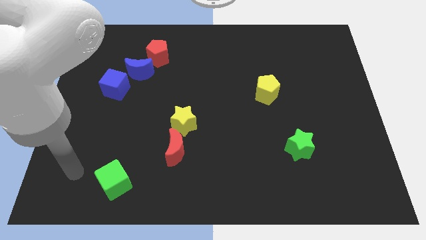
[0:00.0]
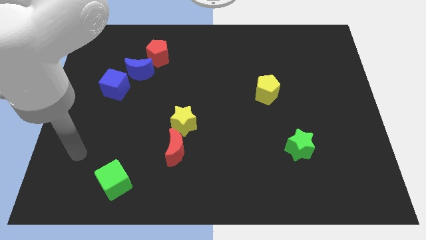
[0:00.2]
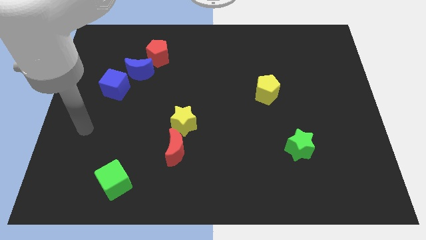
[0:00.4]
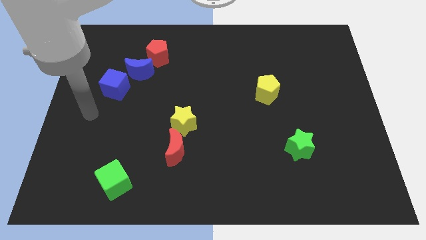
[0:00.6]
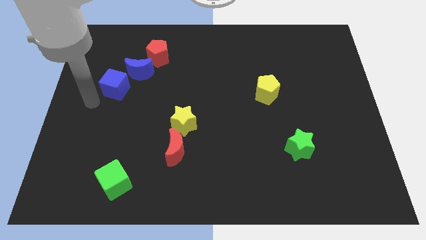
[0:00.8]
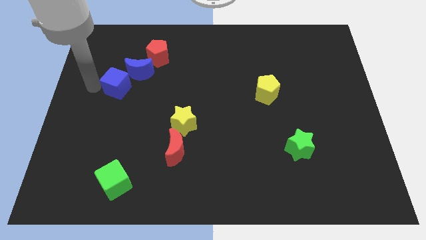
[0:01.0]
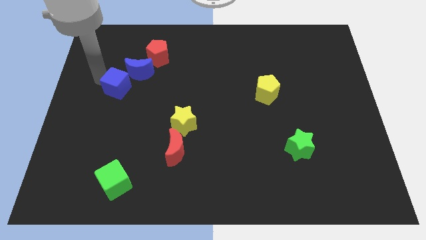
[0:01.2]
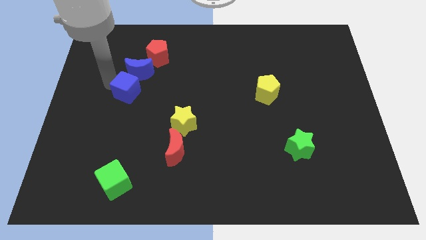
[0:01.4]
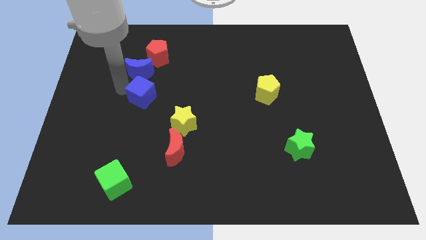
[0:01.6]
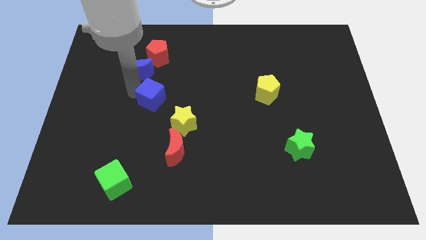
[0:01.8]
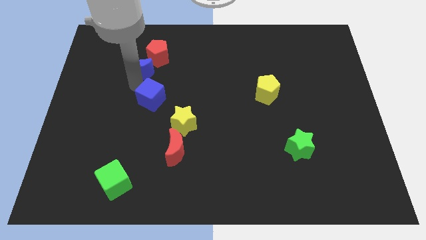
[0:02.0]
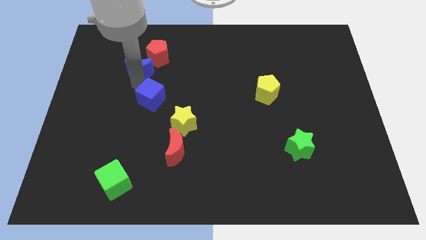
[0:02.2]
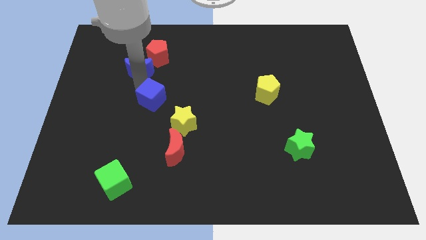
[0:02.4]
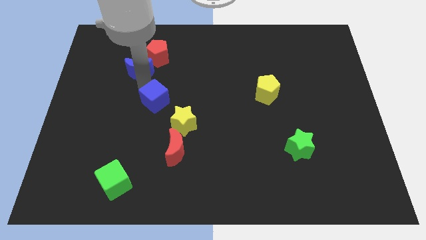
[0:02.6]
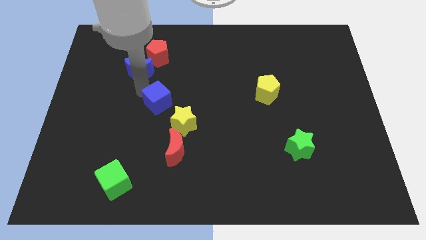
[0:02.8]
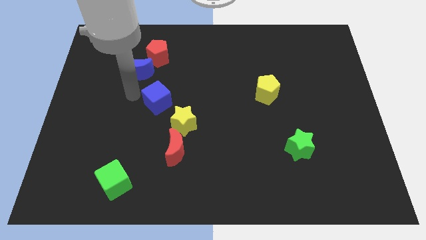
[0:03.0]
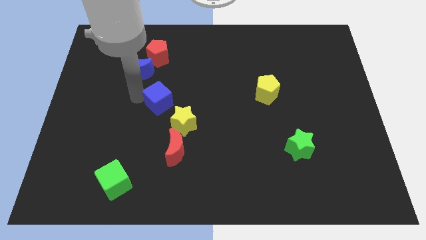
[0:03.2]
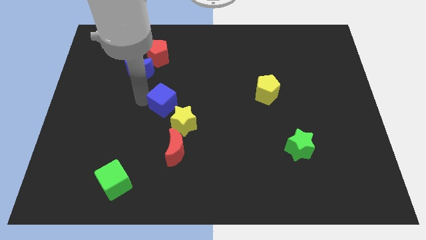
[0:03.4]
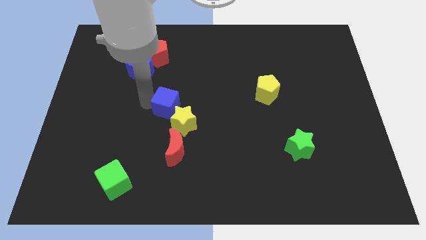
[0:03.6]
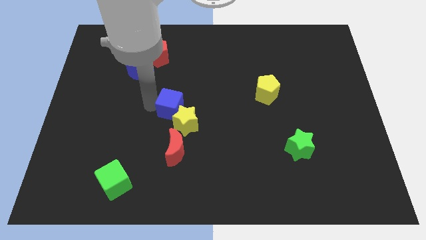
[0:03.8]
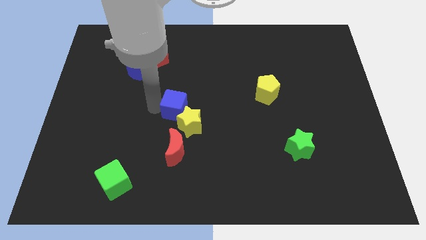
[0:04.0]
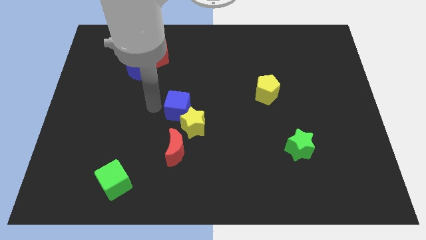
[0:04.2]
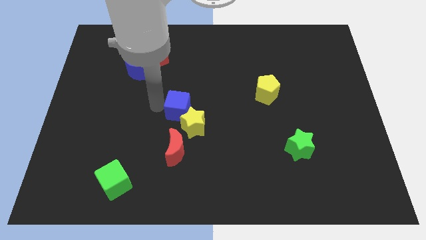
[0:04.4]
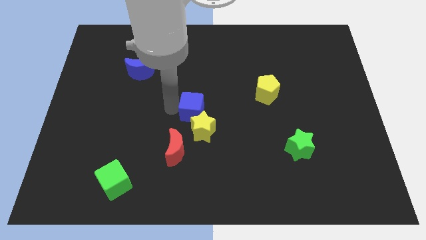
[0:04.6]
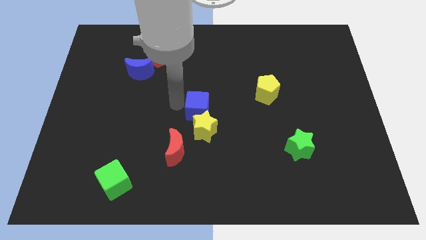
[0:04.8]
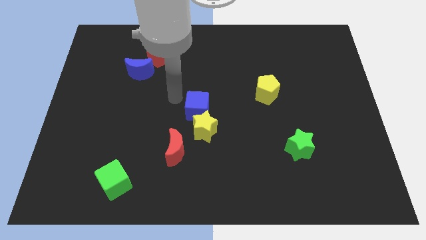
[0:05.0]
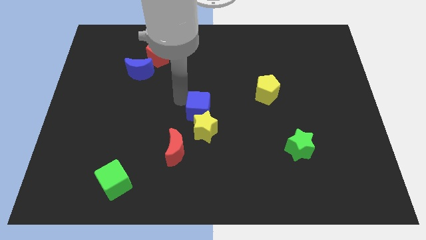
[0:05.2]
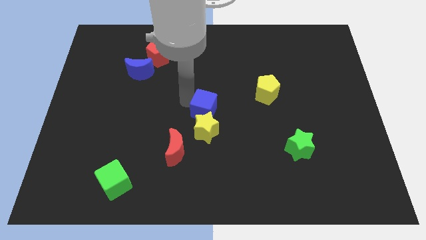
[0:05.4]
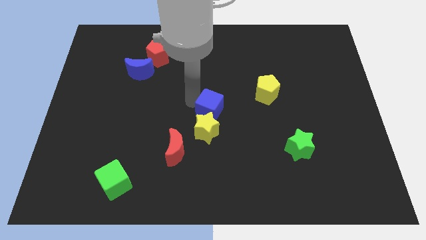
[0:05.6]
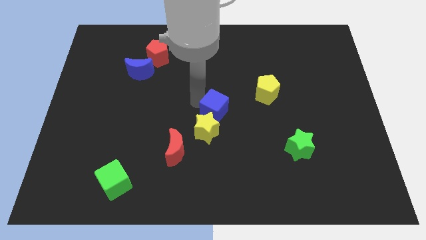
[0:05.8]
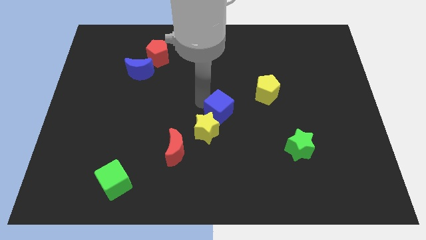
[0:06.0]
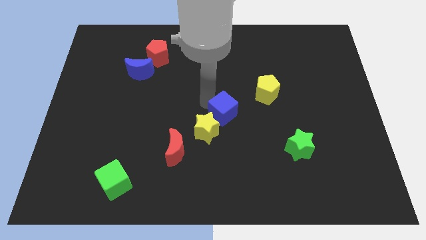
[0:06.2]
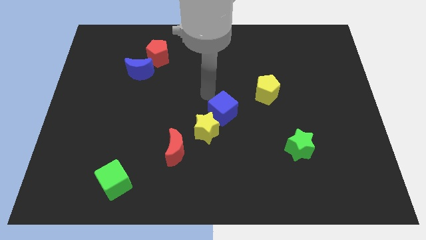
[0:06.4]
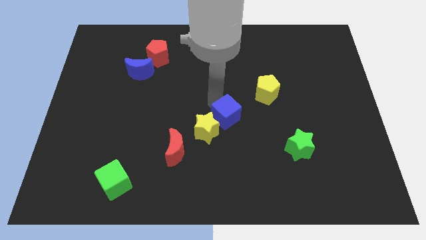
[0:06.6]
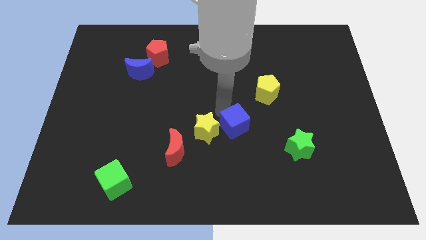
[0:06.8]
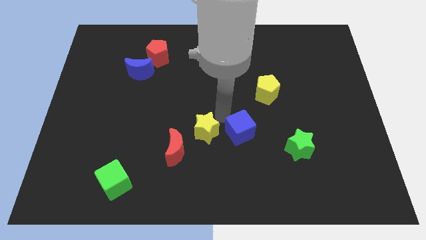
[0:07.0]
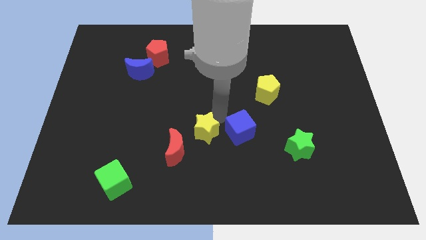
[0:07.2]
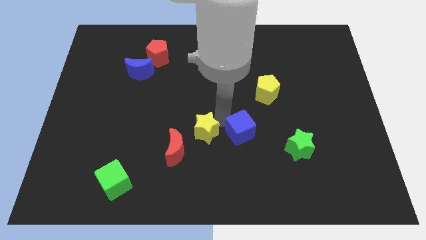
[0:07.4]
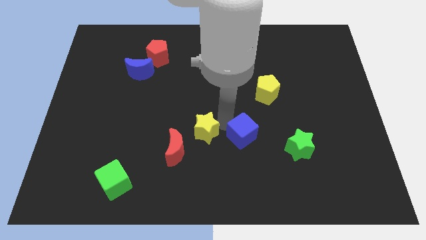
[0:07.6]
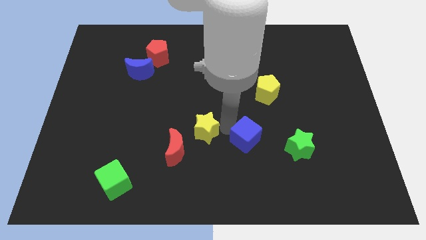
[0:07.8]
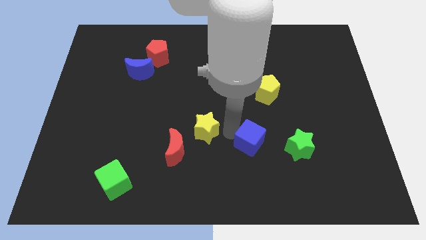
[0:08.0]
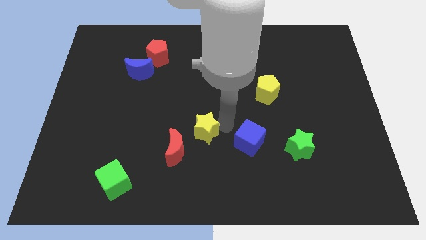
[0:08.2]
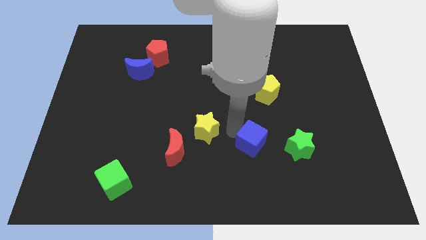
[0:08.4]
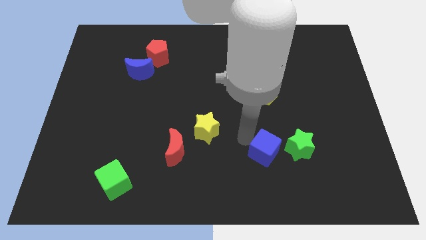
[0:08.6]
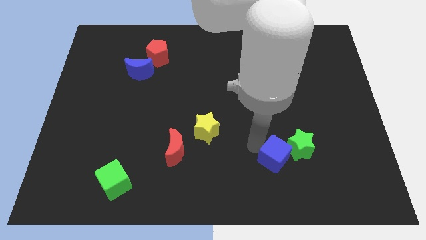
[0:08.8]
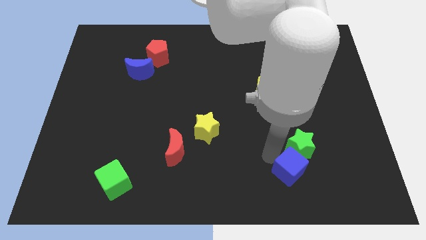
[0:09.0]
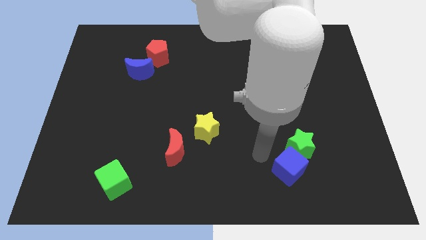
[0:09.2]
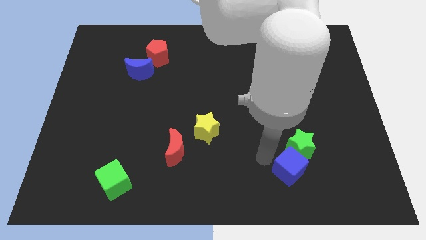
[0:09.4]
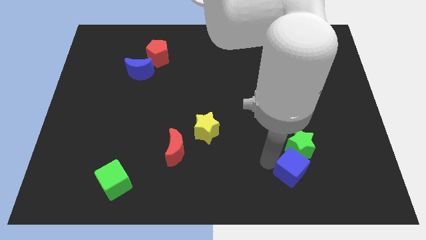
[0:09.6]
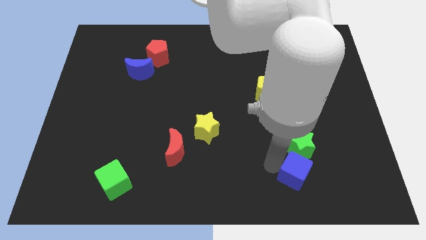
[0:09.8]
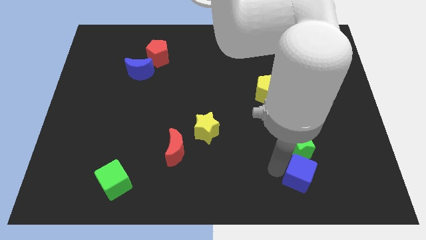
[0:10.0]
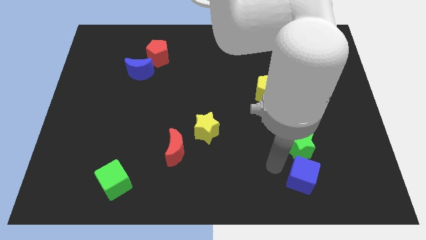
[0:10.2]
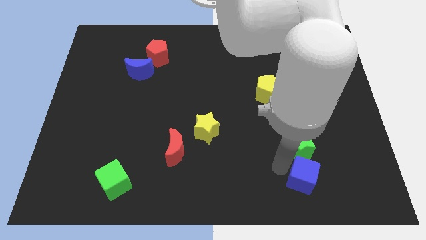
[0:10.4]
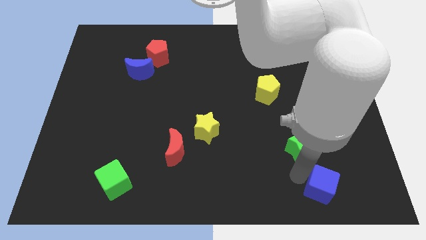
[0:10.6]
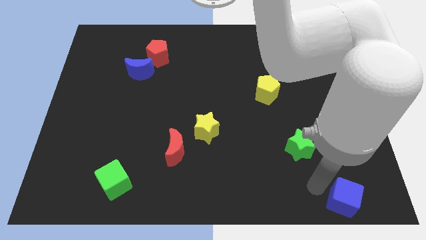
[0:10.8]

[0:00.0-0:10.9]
move the blue cube to the bottom right corner

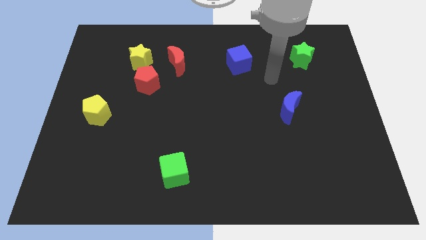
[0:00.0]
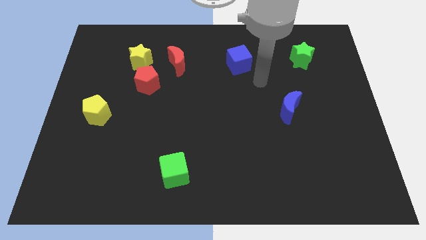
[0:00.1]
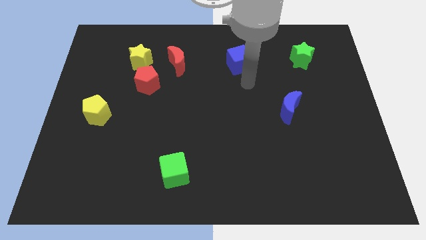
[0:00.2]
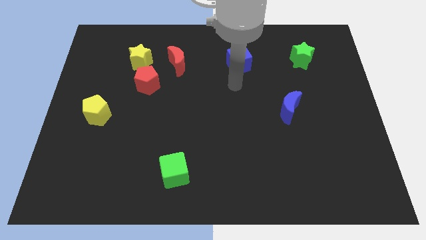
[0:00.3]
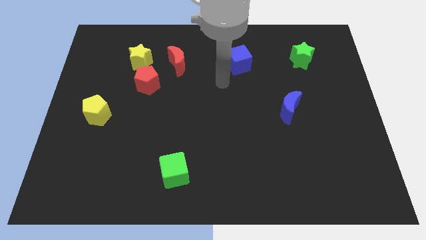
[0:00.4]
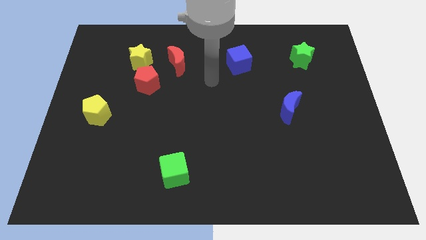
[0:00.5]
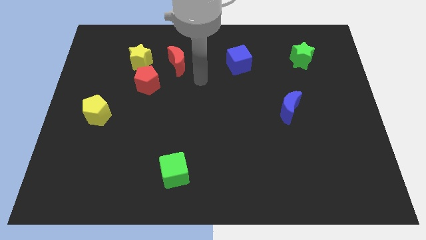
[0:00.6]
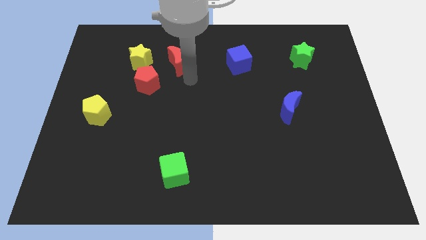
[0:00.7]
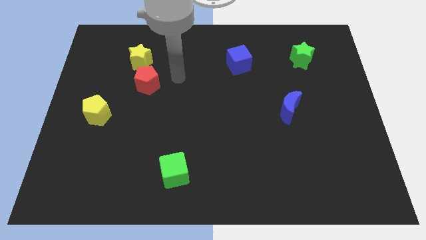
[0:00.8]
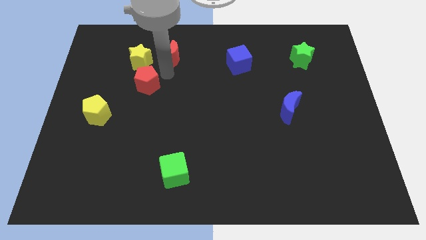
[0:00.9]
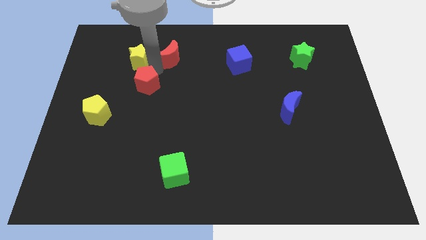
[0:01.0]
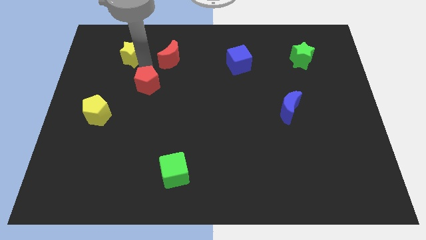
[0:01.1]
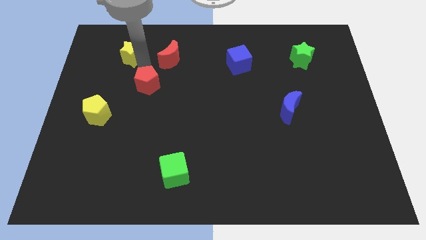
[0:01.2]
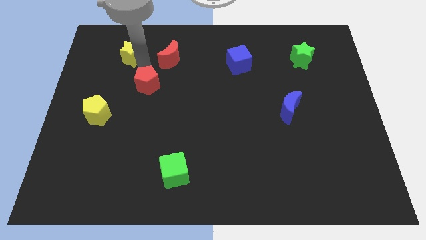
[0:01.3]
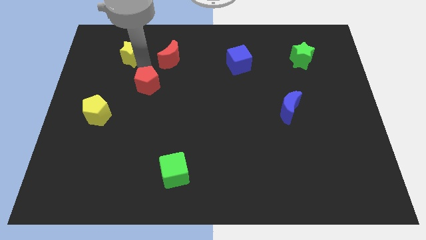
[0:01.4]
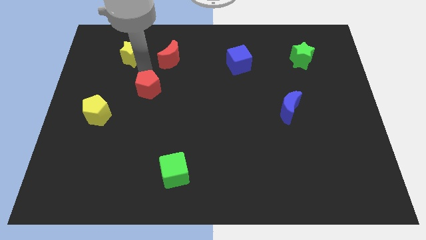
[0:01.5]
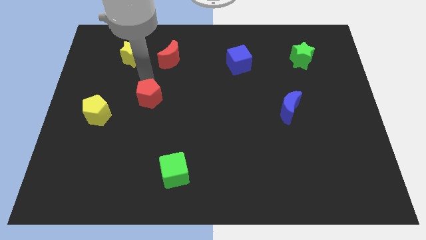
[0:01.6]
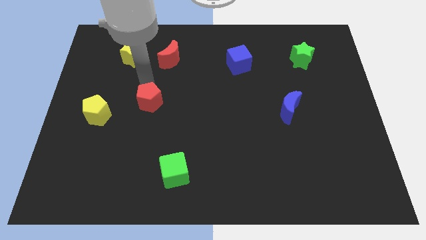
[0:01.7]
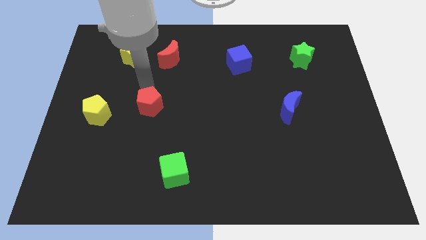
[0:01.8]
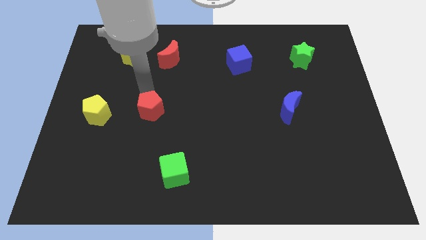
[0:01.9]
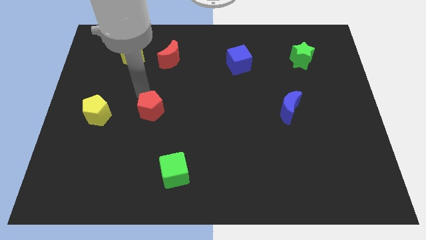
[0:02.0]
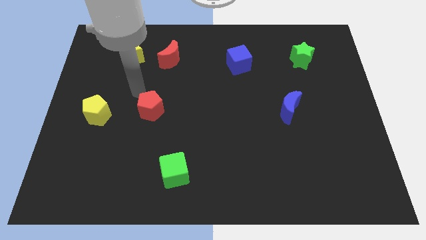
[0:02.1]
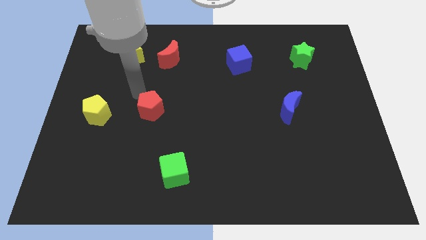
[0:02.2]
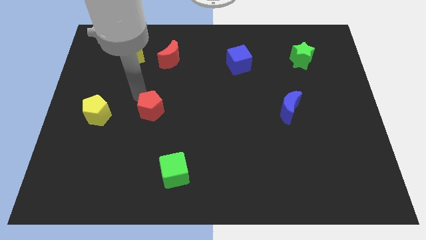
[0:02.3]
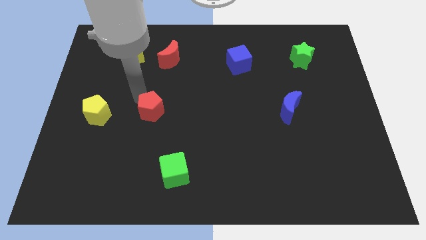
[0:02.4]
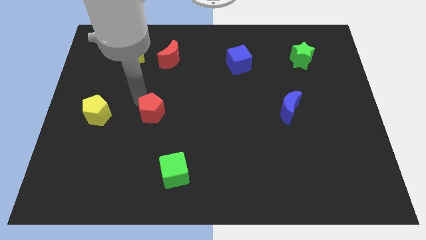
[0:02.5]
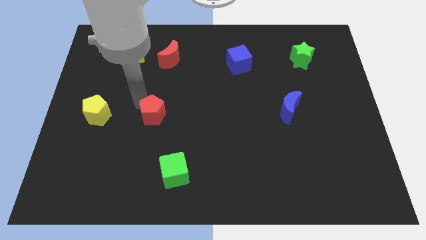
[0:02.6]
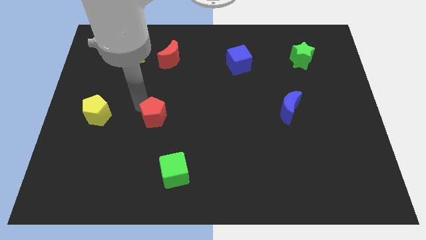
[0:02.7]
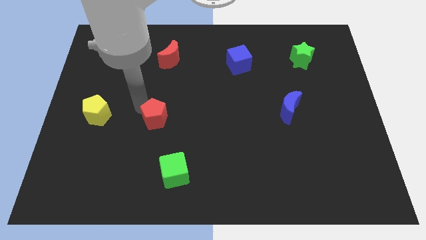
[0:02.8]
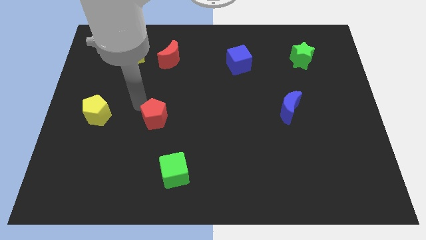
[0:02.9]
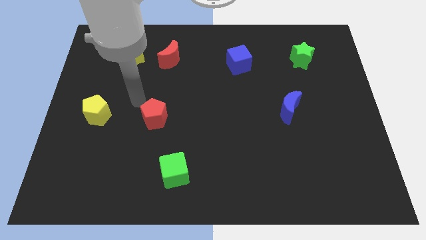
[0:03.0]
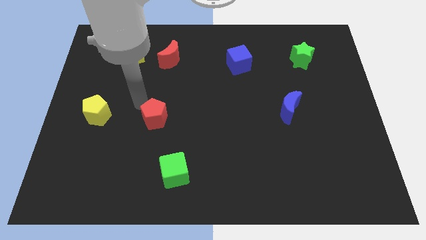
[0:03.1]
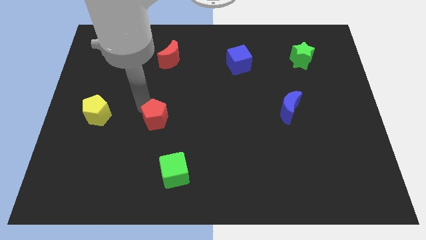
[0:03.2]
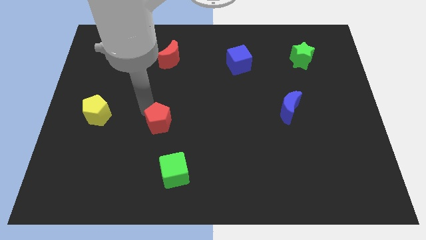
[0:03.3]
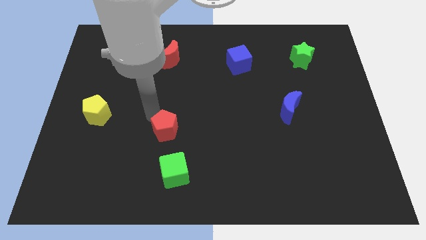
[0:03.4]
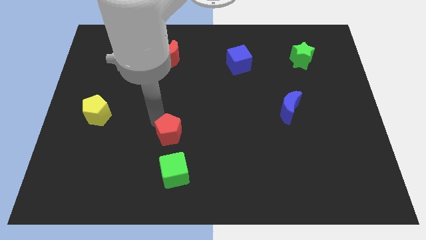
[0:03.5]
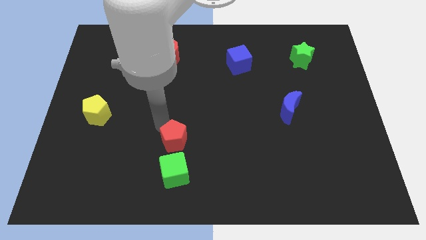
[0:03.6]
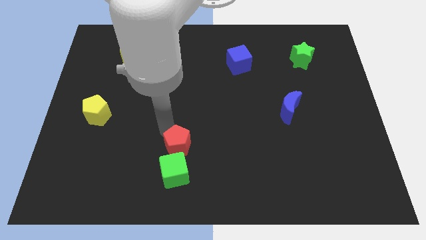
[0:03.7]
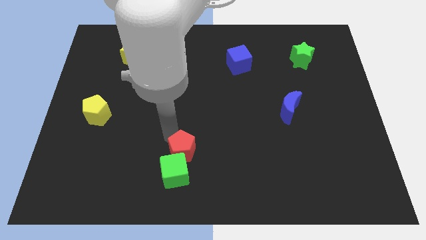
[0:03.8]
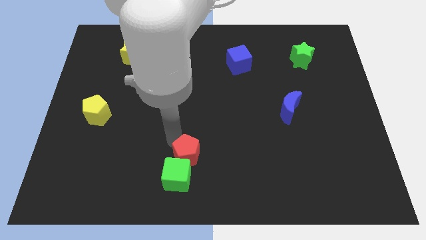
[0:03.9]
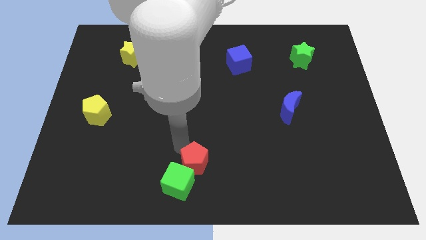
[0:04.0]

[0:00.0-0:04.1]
push the red pentagon to the bottom
